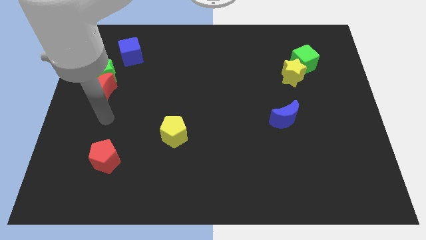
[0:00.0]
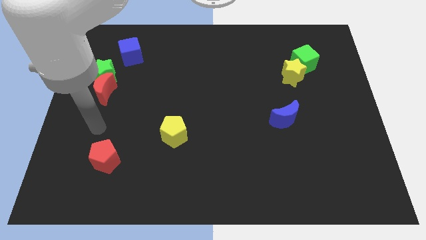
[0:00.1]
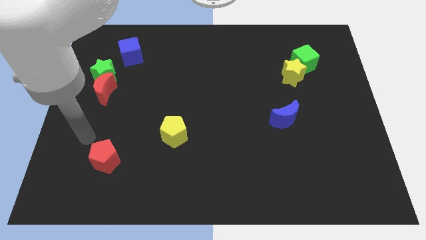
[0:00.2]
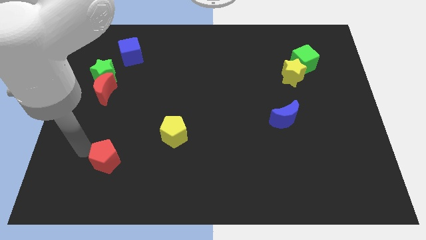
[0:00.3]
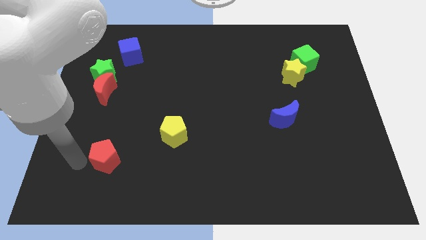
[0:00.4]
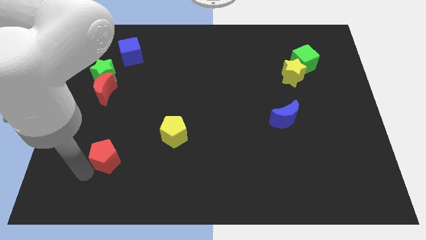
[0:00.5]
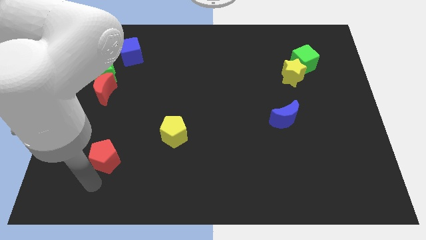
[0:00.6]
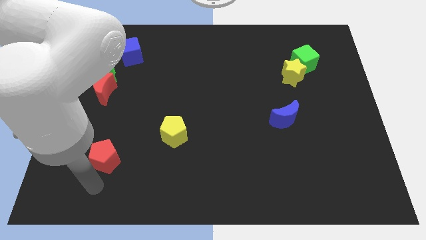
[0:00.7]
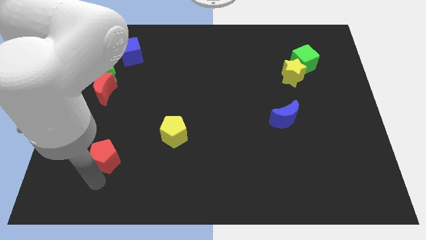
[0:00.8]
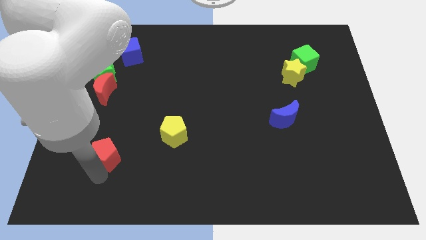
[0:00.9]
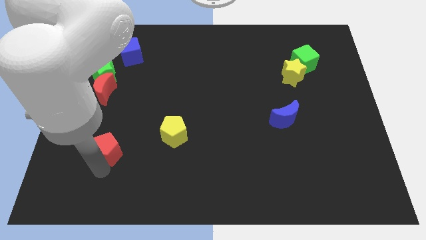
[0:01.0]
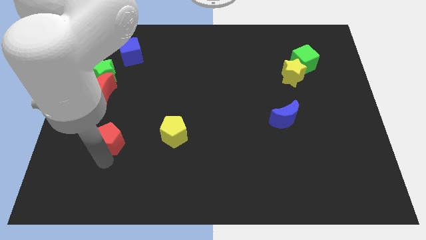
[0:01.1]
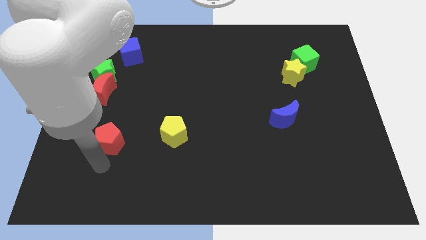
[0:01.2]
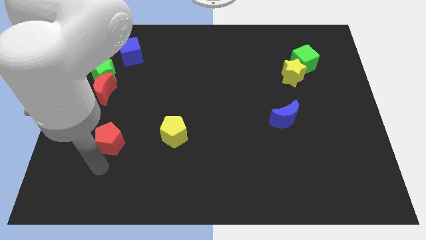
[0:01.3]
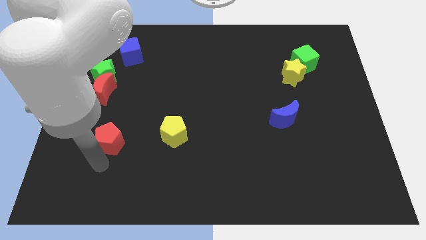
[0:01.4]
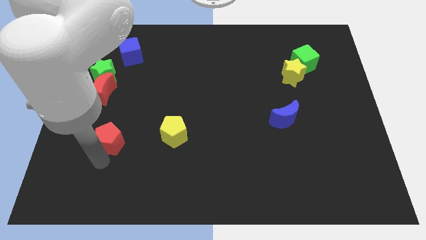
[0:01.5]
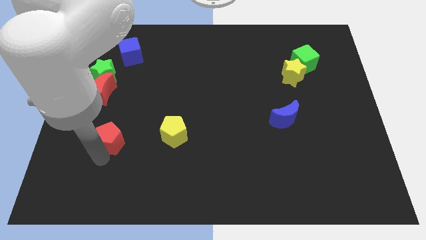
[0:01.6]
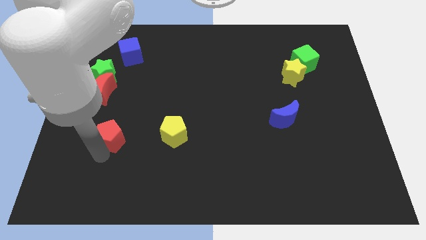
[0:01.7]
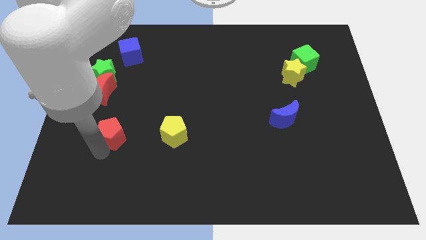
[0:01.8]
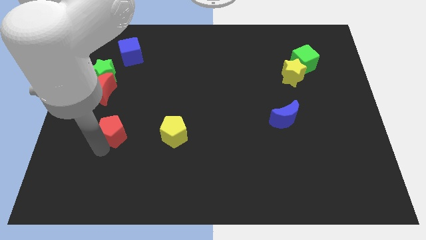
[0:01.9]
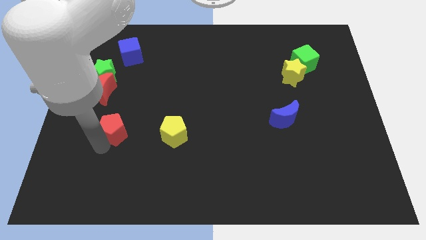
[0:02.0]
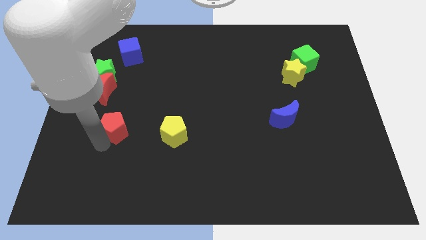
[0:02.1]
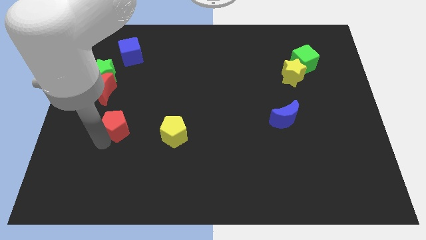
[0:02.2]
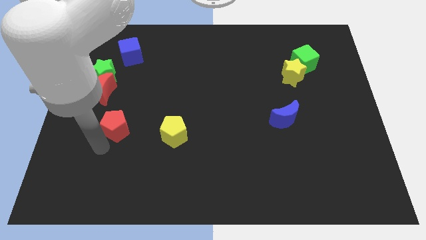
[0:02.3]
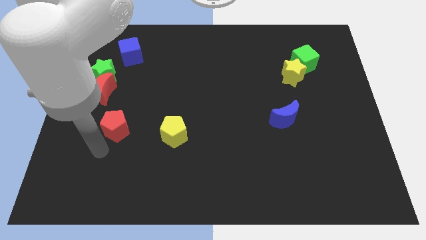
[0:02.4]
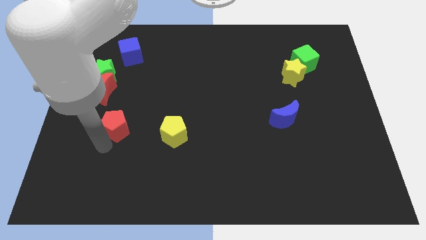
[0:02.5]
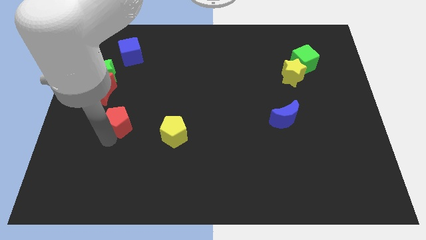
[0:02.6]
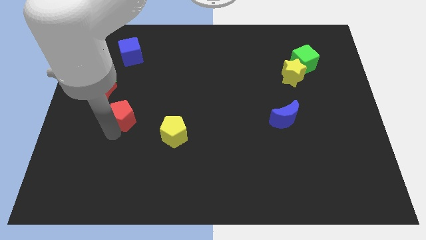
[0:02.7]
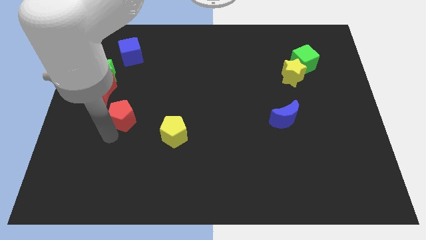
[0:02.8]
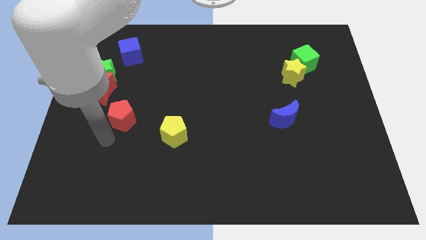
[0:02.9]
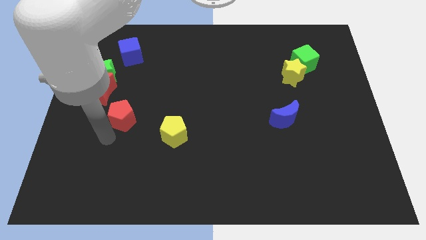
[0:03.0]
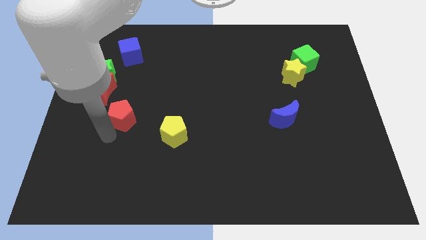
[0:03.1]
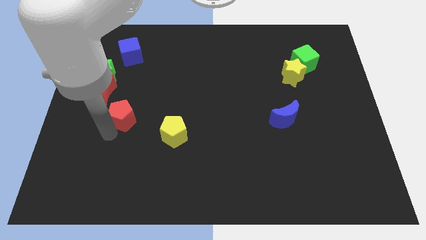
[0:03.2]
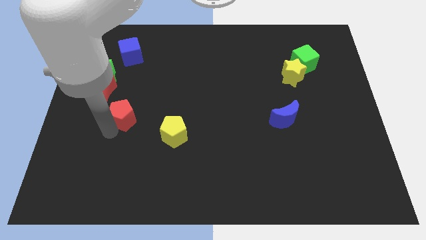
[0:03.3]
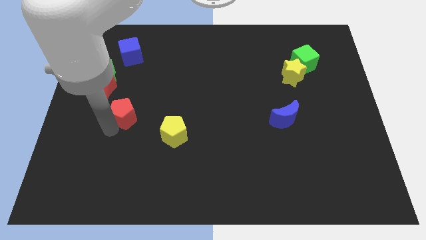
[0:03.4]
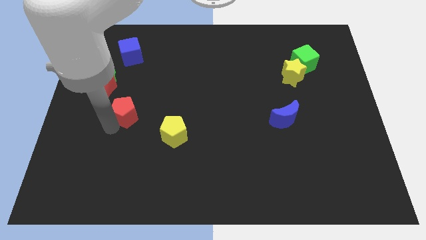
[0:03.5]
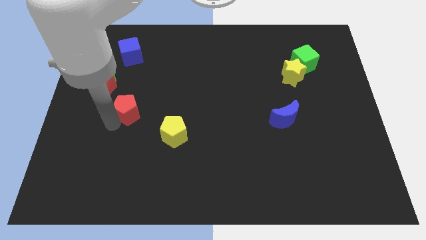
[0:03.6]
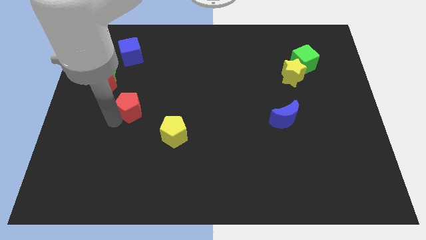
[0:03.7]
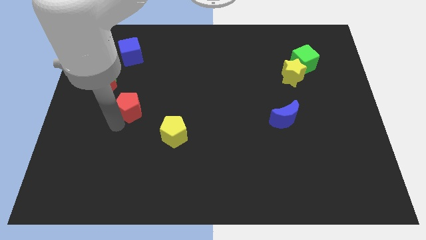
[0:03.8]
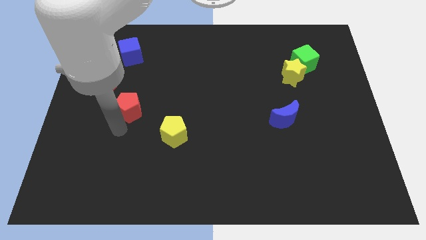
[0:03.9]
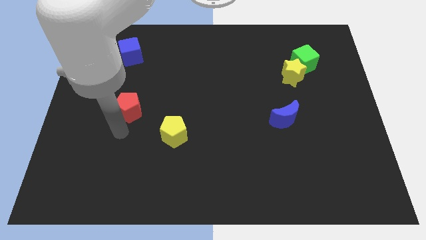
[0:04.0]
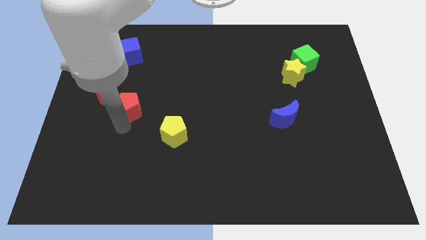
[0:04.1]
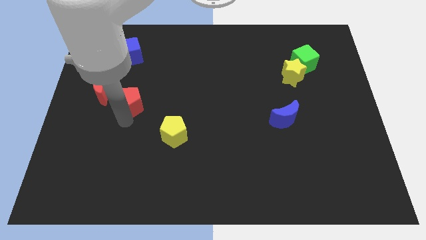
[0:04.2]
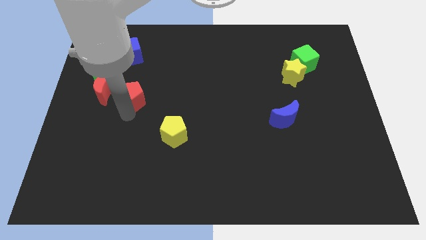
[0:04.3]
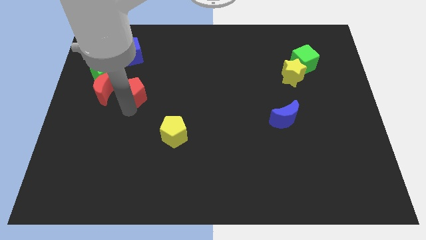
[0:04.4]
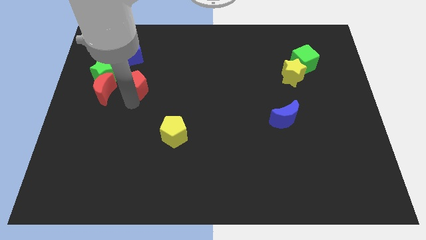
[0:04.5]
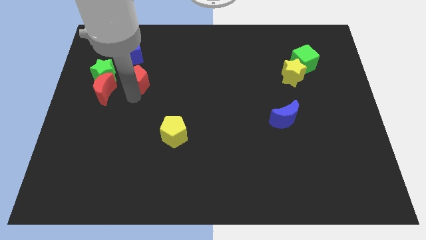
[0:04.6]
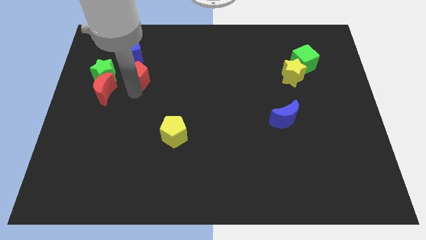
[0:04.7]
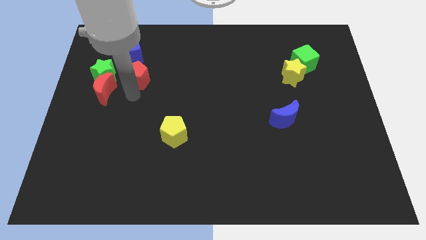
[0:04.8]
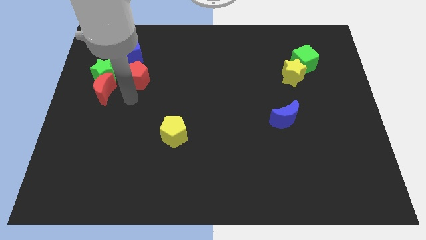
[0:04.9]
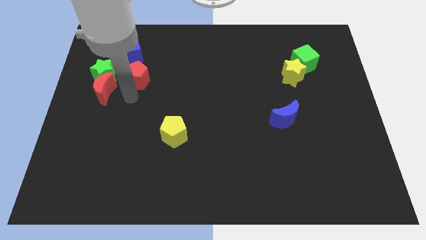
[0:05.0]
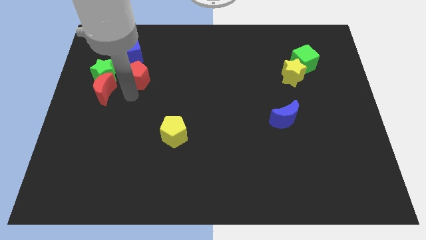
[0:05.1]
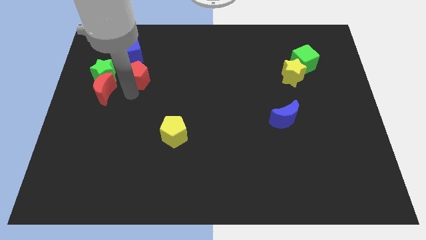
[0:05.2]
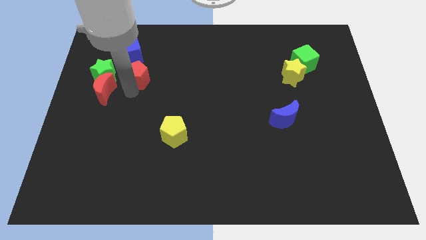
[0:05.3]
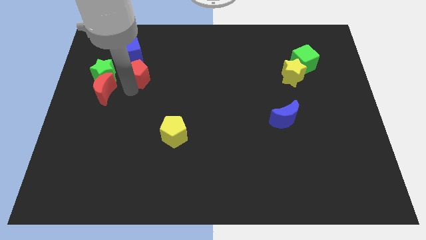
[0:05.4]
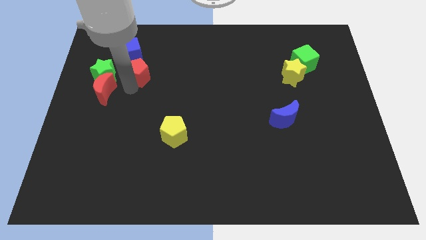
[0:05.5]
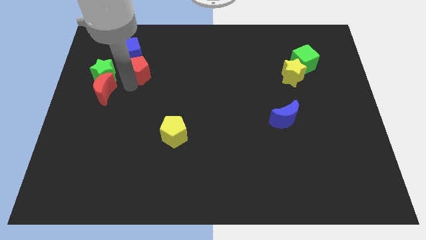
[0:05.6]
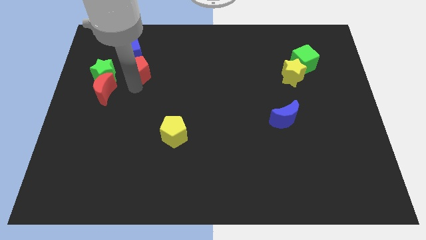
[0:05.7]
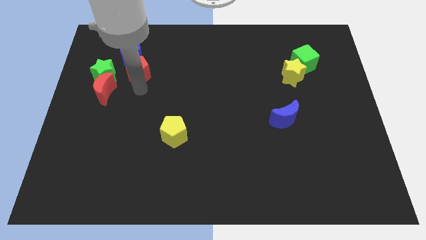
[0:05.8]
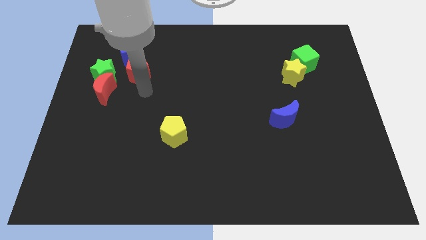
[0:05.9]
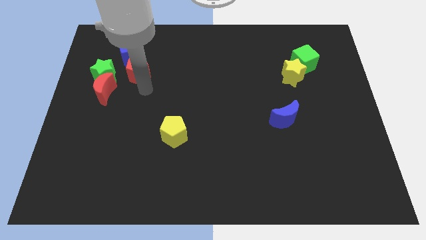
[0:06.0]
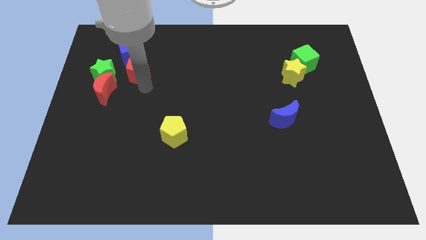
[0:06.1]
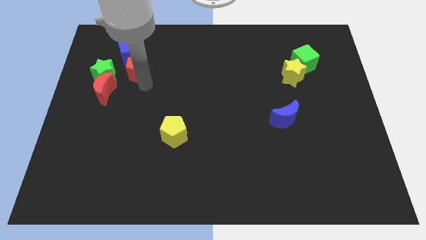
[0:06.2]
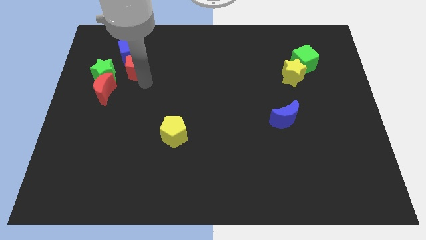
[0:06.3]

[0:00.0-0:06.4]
put the red pentagon next to the blue cube

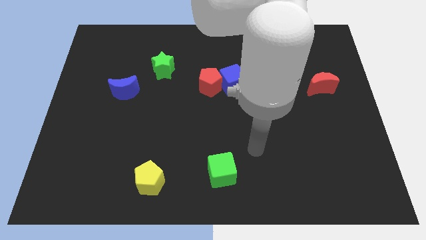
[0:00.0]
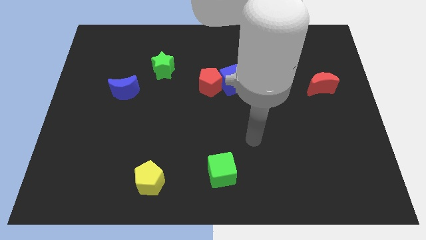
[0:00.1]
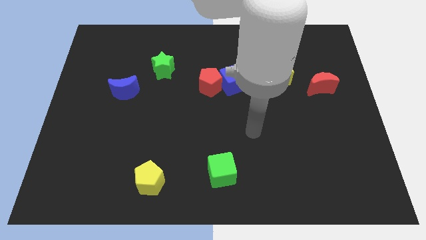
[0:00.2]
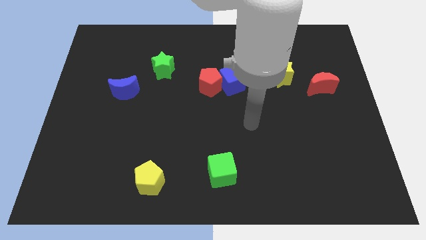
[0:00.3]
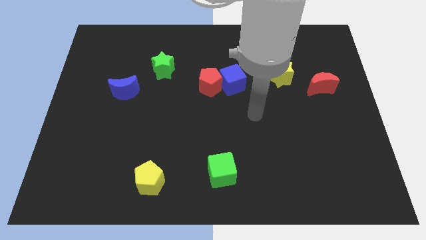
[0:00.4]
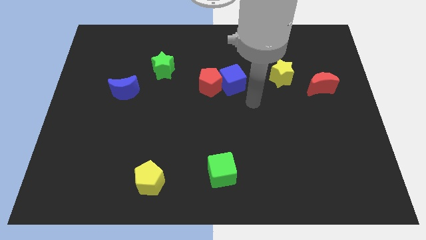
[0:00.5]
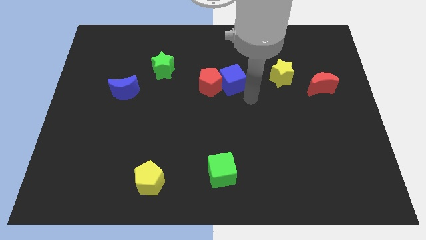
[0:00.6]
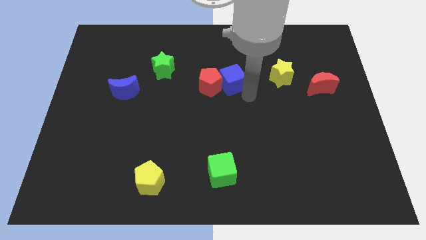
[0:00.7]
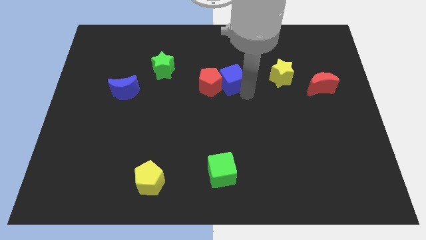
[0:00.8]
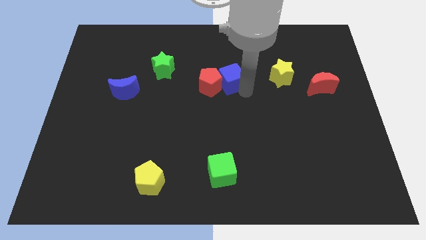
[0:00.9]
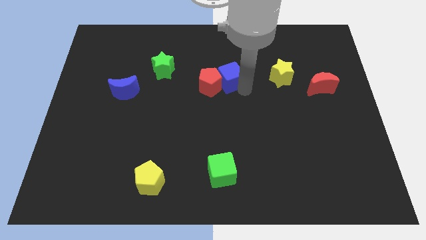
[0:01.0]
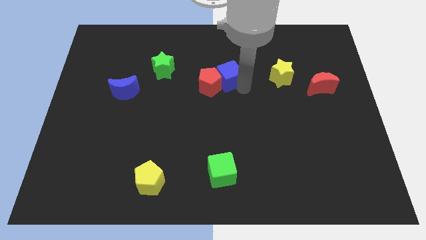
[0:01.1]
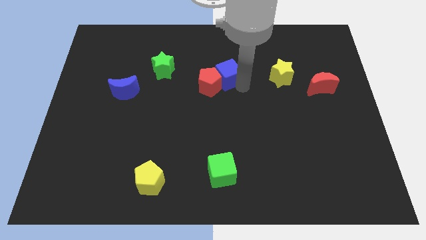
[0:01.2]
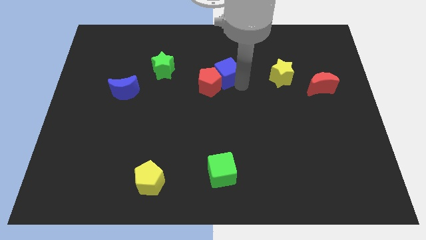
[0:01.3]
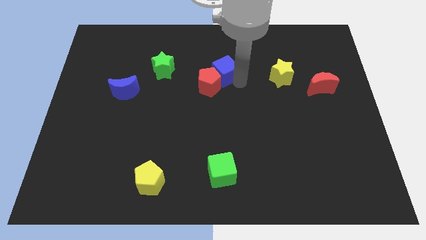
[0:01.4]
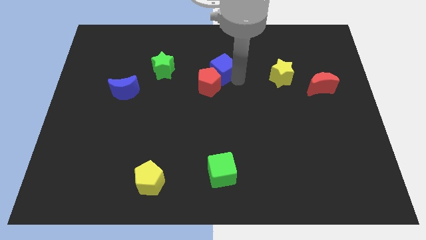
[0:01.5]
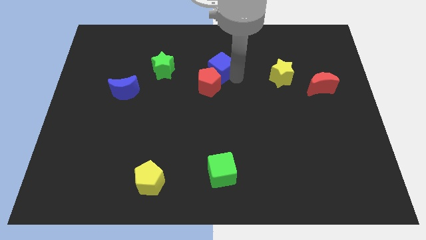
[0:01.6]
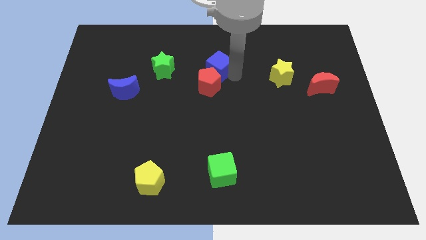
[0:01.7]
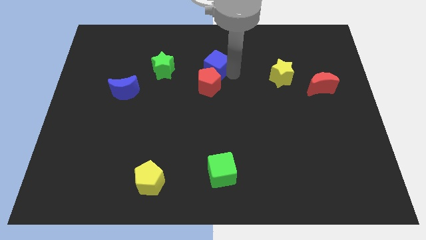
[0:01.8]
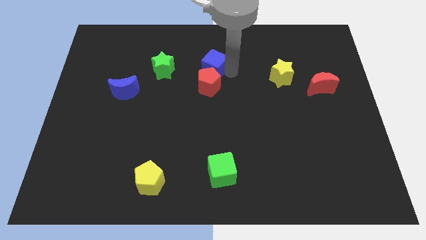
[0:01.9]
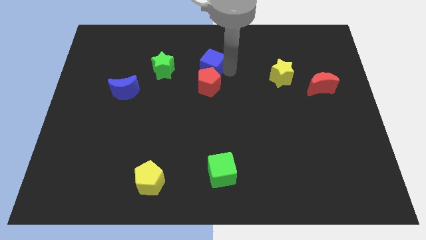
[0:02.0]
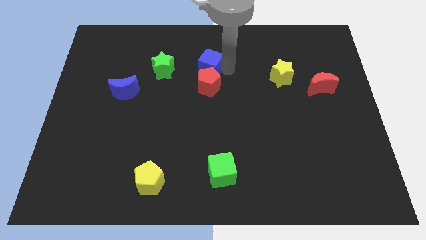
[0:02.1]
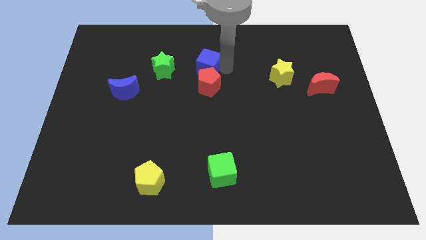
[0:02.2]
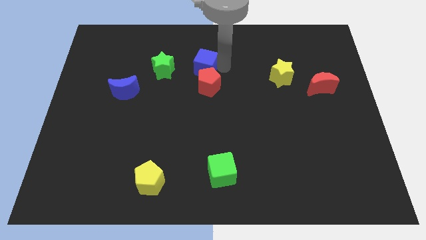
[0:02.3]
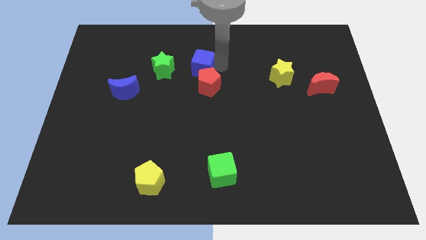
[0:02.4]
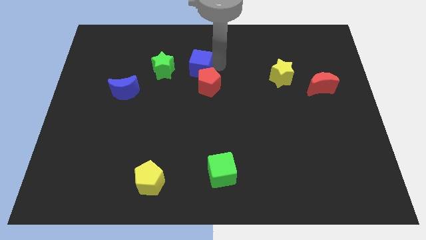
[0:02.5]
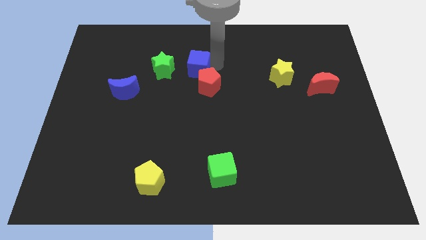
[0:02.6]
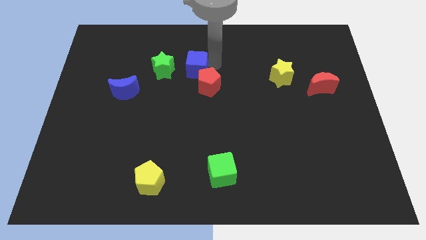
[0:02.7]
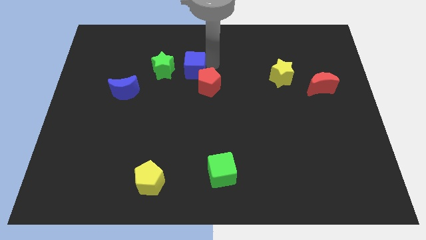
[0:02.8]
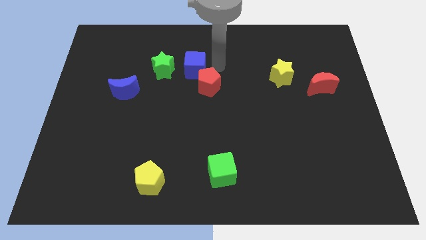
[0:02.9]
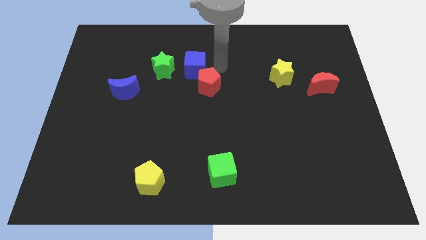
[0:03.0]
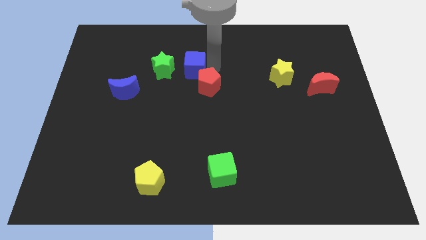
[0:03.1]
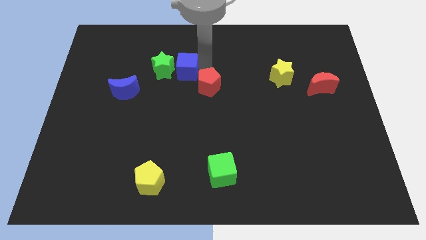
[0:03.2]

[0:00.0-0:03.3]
put the blue cube close to the green star
